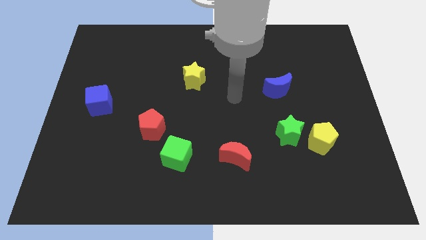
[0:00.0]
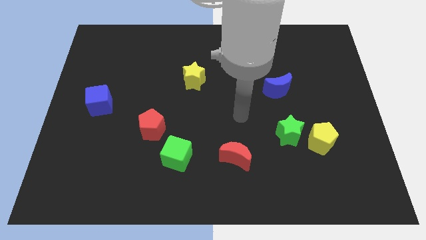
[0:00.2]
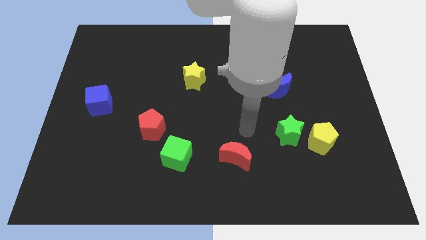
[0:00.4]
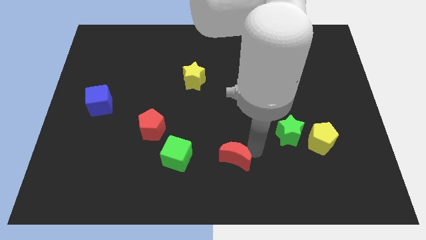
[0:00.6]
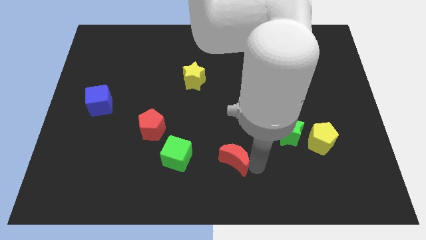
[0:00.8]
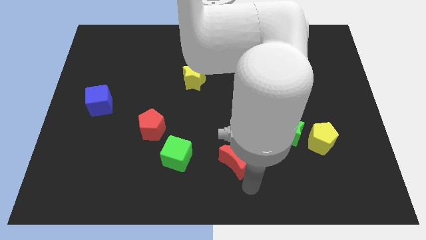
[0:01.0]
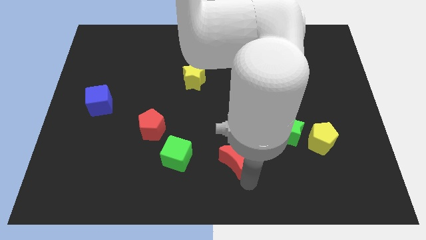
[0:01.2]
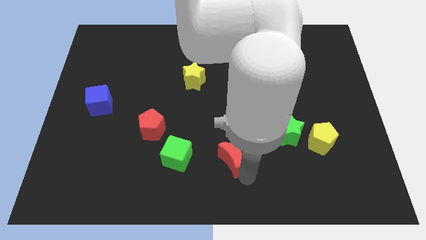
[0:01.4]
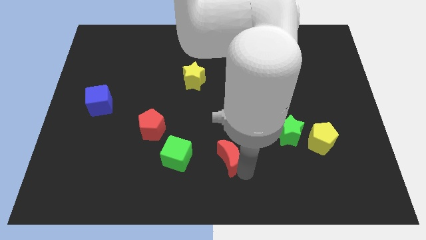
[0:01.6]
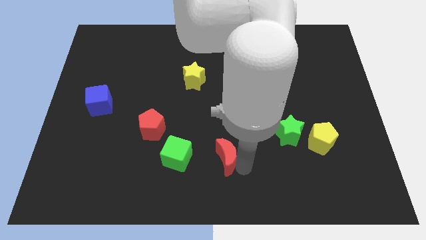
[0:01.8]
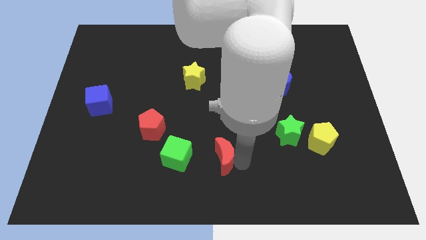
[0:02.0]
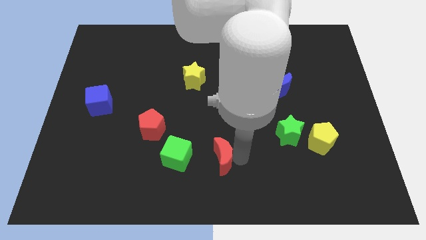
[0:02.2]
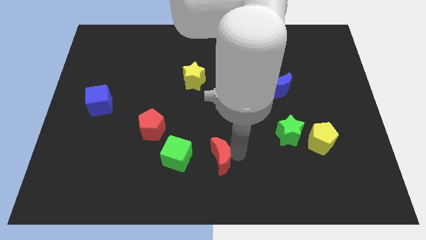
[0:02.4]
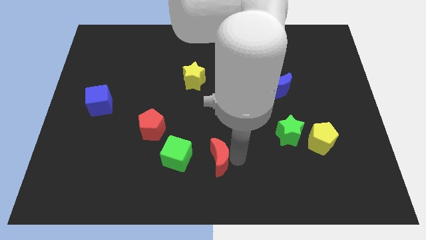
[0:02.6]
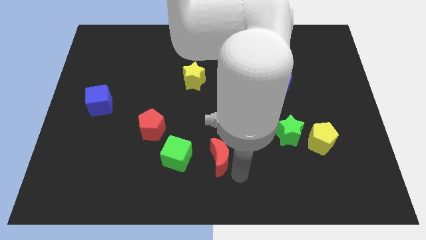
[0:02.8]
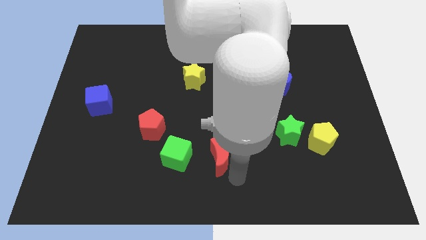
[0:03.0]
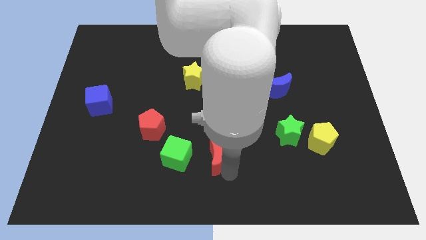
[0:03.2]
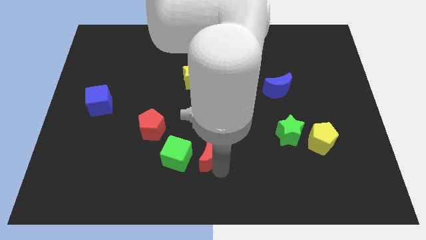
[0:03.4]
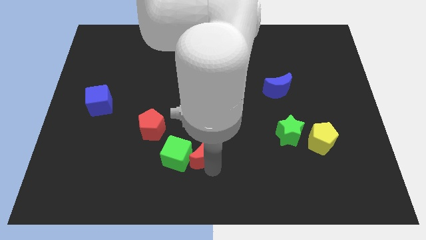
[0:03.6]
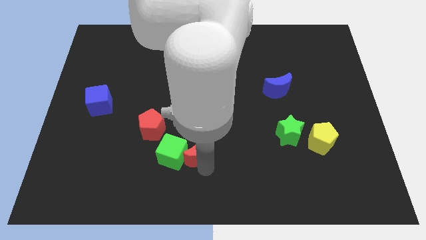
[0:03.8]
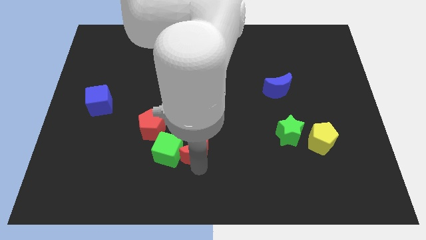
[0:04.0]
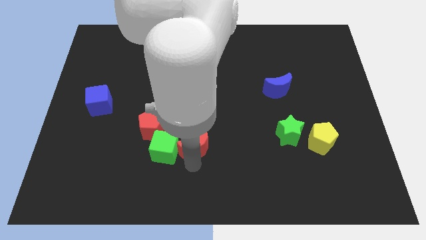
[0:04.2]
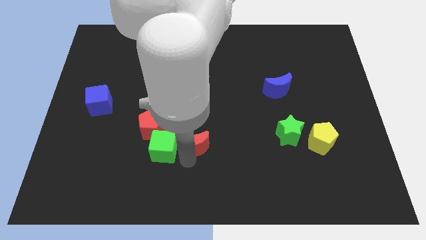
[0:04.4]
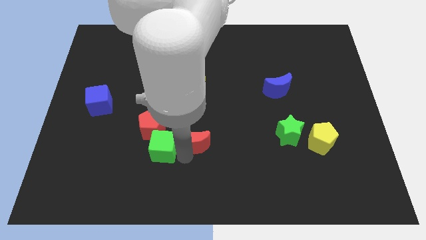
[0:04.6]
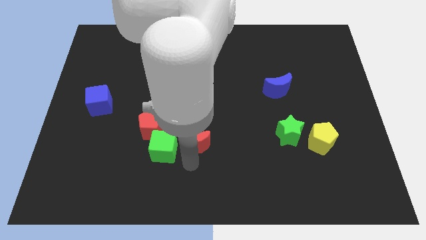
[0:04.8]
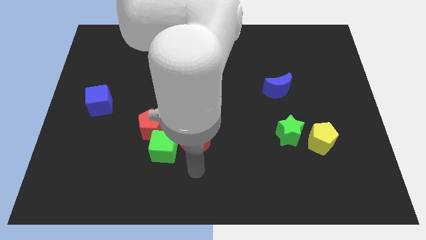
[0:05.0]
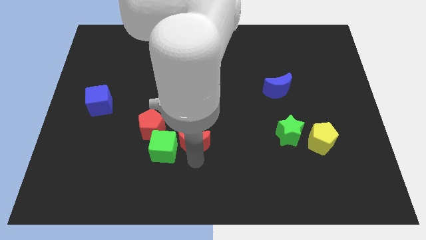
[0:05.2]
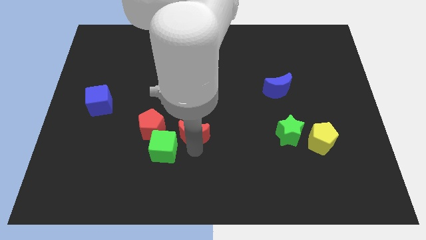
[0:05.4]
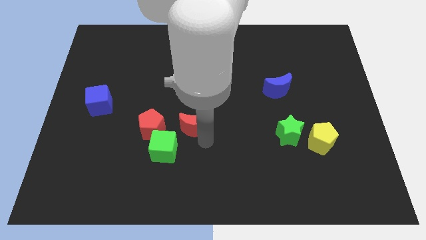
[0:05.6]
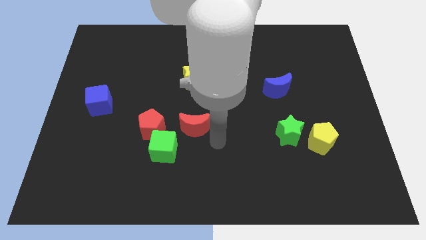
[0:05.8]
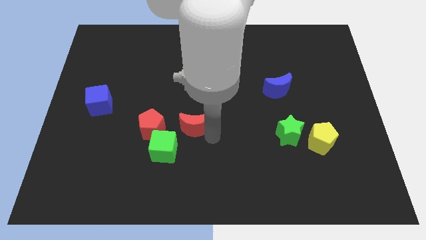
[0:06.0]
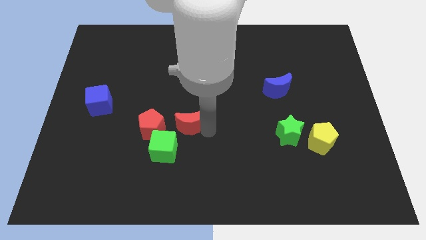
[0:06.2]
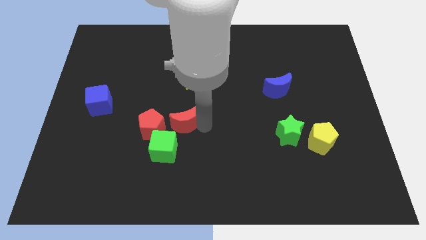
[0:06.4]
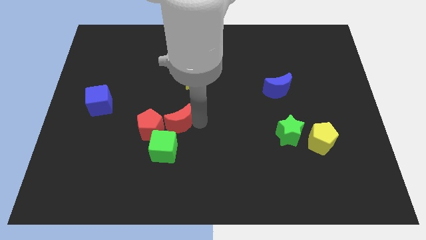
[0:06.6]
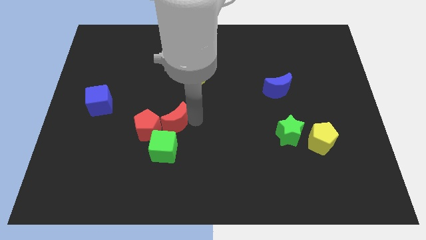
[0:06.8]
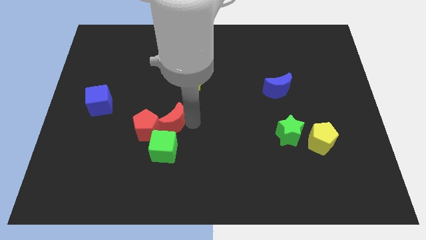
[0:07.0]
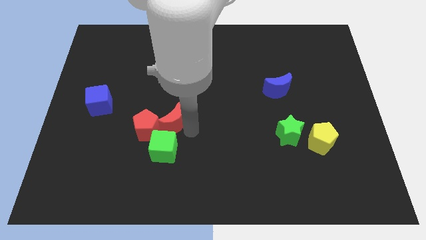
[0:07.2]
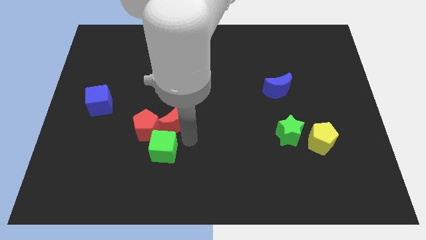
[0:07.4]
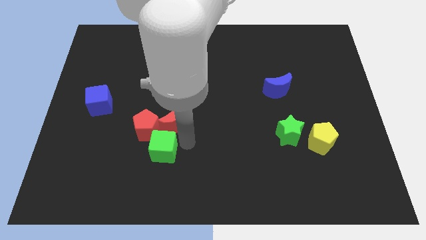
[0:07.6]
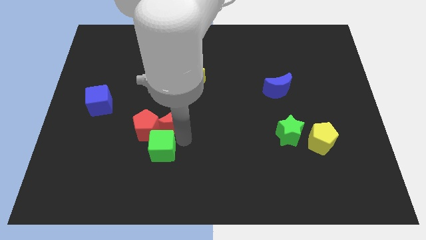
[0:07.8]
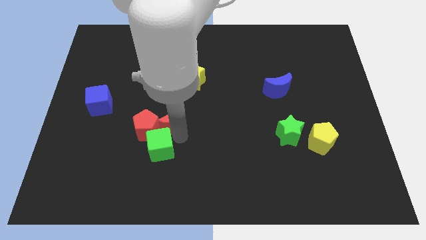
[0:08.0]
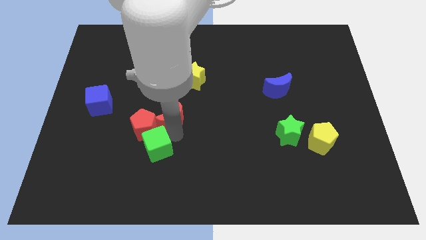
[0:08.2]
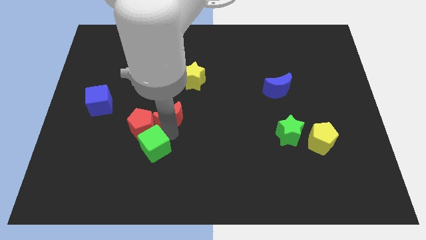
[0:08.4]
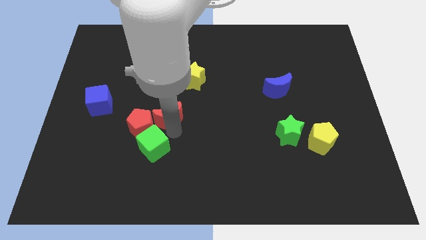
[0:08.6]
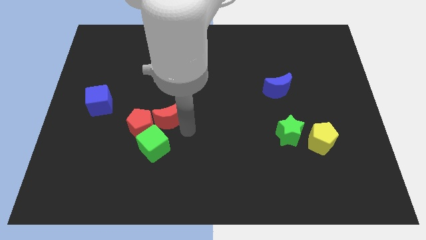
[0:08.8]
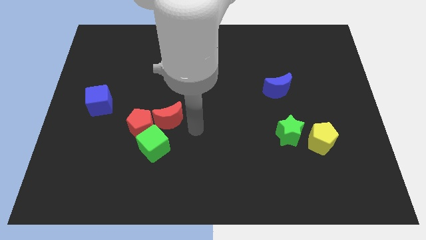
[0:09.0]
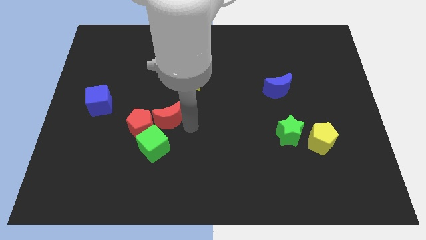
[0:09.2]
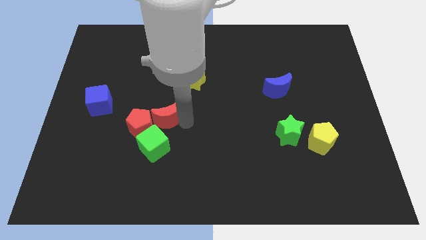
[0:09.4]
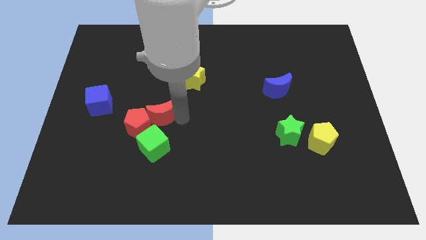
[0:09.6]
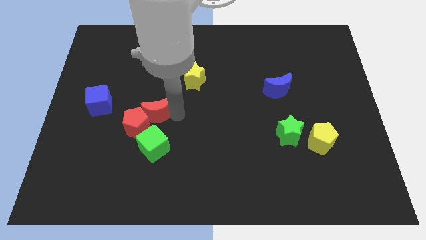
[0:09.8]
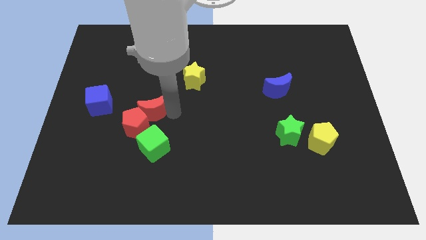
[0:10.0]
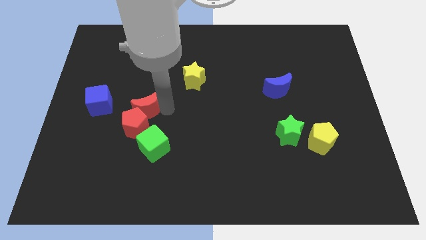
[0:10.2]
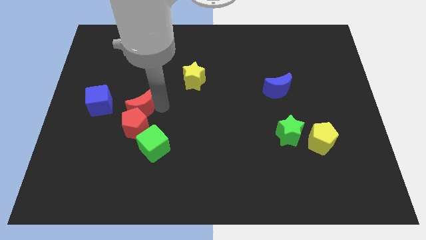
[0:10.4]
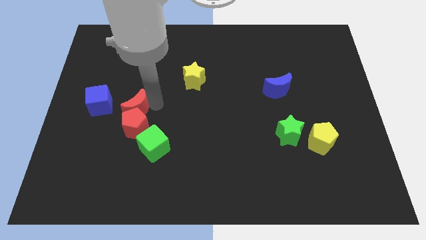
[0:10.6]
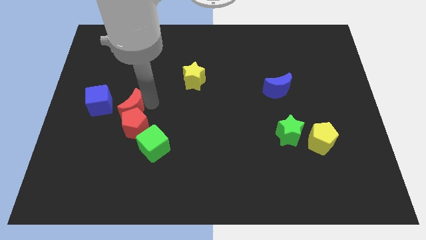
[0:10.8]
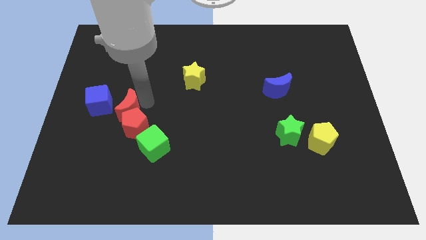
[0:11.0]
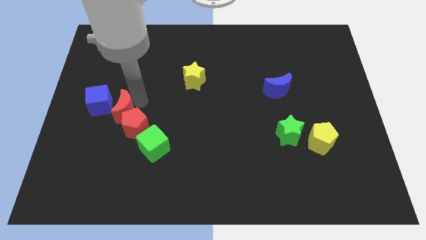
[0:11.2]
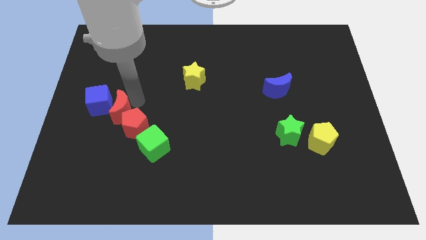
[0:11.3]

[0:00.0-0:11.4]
move the red moon towards the blue cube

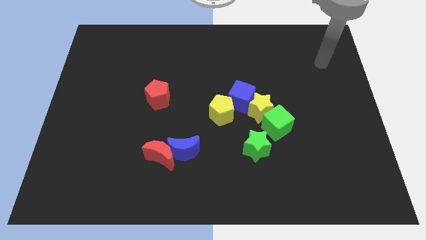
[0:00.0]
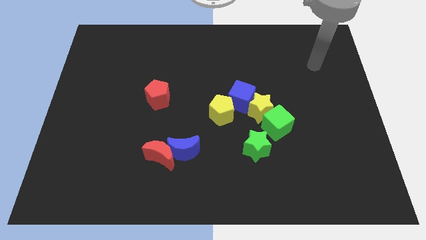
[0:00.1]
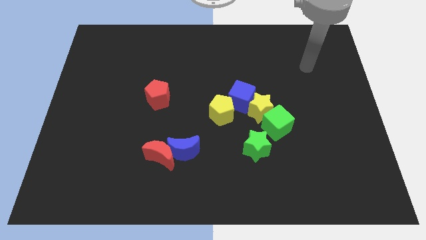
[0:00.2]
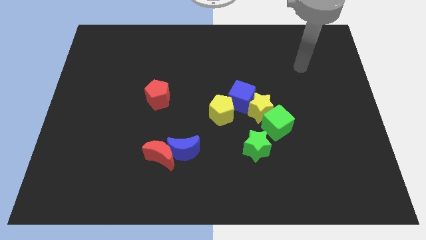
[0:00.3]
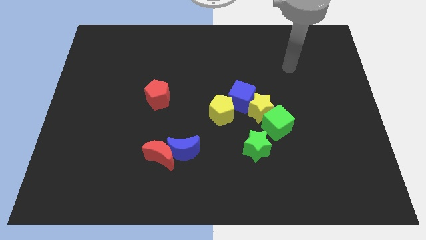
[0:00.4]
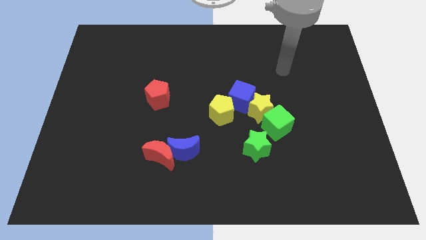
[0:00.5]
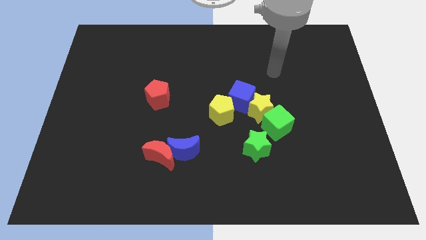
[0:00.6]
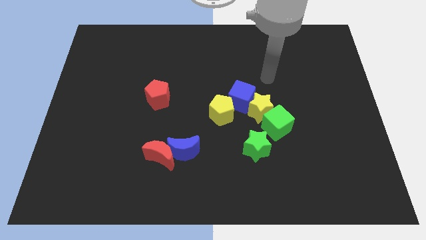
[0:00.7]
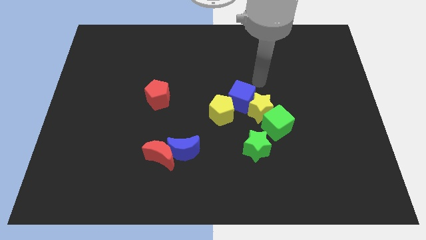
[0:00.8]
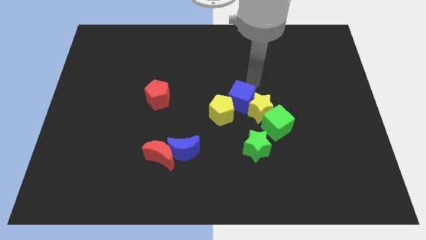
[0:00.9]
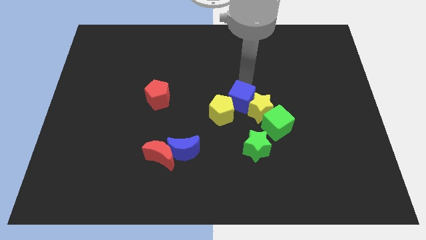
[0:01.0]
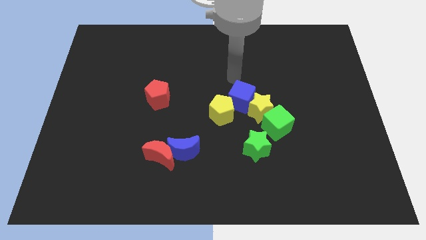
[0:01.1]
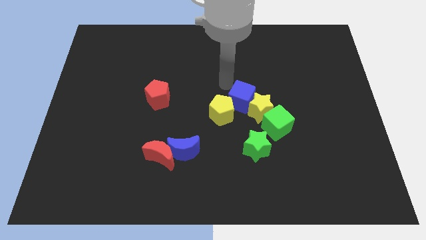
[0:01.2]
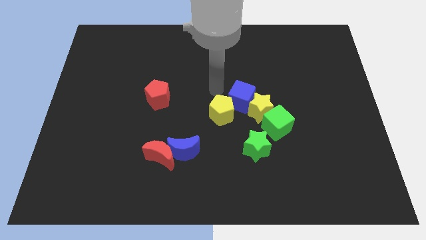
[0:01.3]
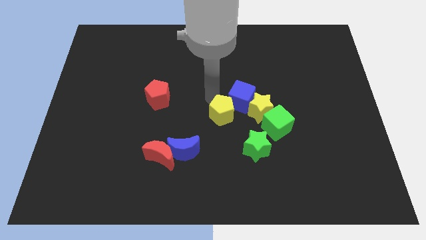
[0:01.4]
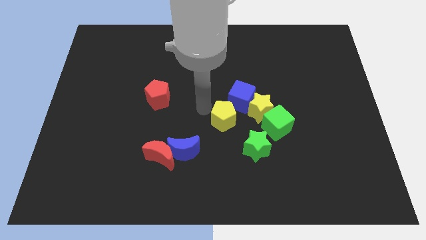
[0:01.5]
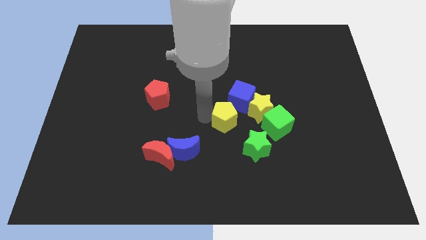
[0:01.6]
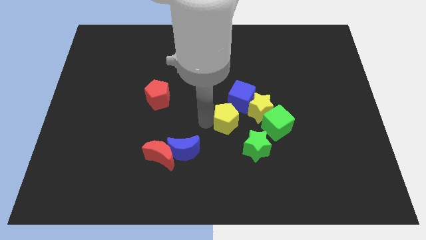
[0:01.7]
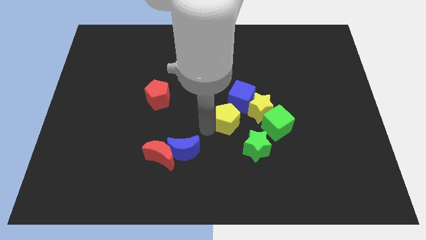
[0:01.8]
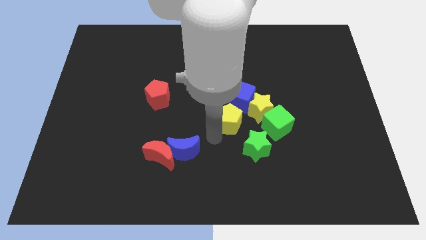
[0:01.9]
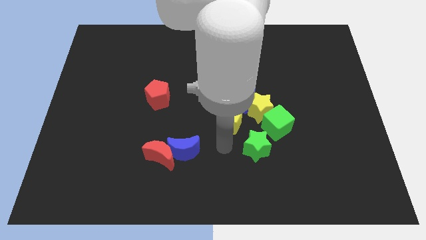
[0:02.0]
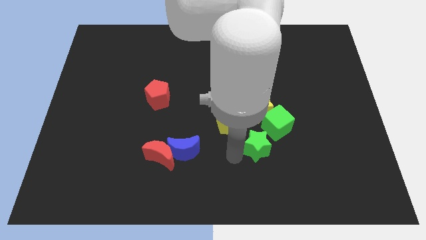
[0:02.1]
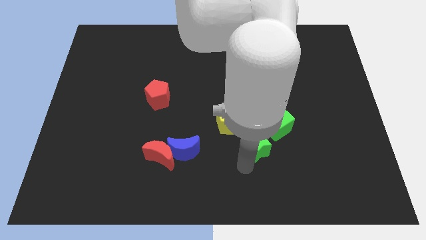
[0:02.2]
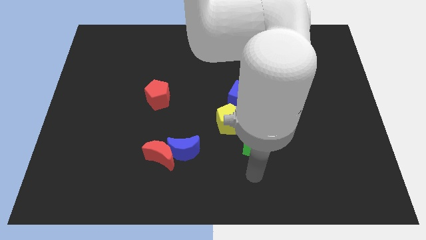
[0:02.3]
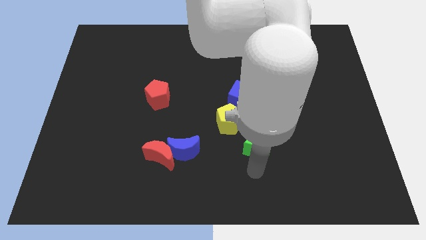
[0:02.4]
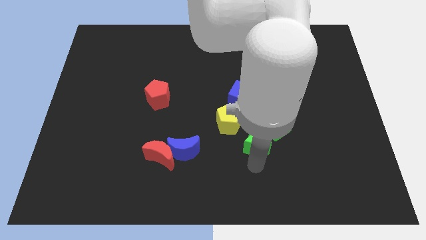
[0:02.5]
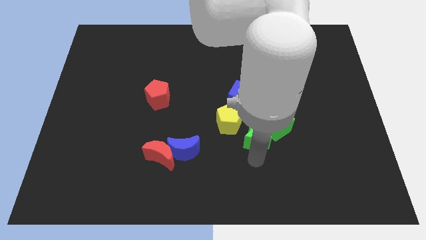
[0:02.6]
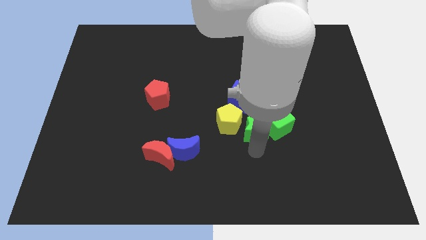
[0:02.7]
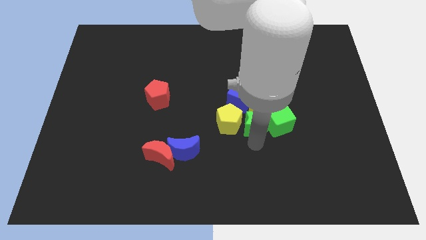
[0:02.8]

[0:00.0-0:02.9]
move the green star next to the yellow star
